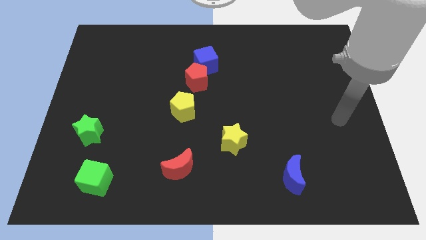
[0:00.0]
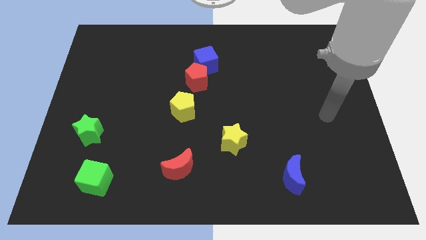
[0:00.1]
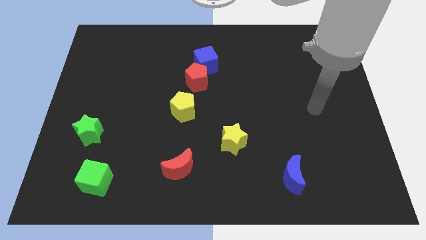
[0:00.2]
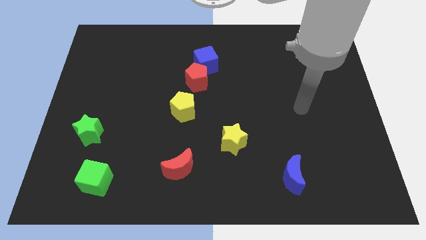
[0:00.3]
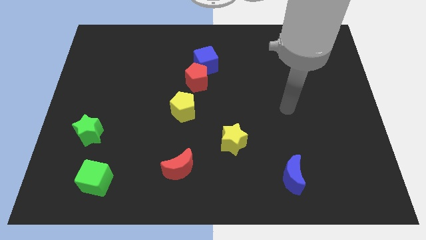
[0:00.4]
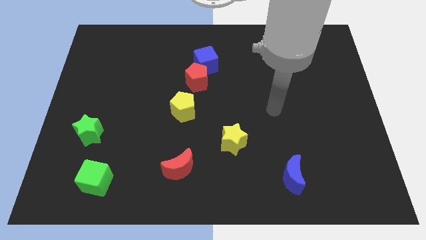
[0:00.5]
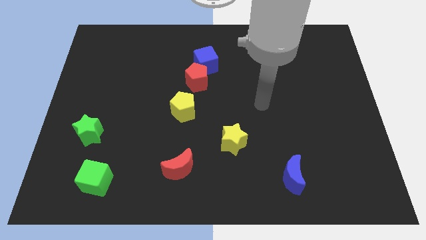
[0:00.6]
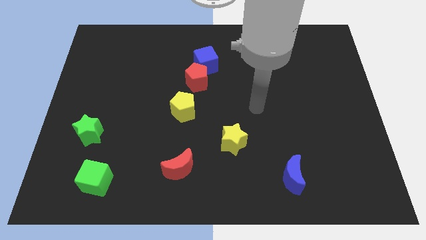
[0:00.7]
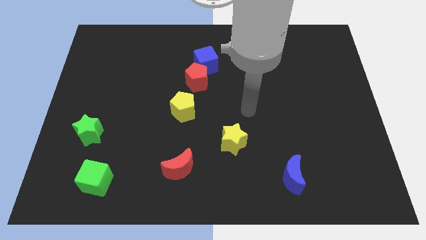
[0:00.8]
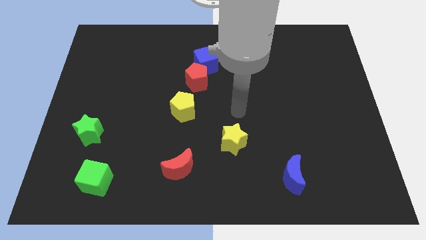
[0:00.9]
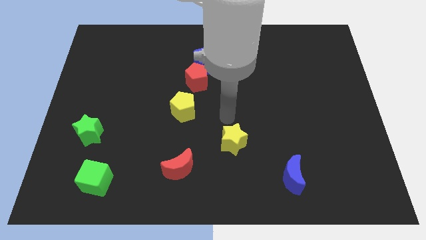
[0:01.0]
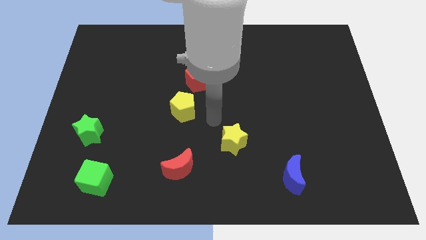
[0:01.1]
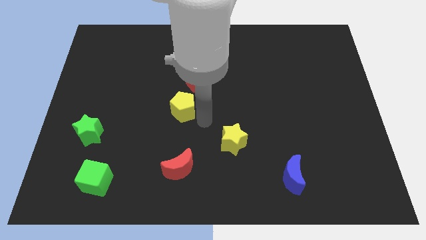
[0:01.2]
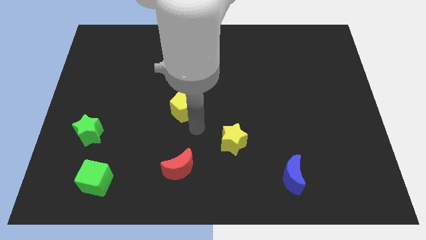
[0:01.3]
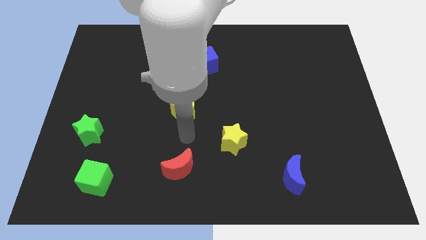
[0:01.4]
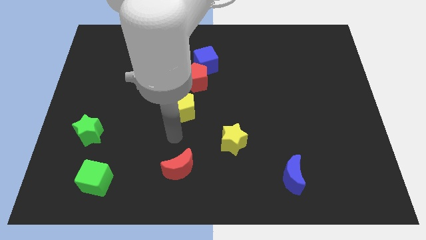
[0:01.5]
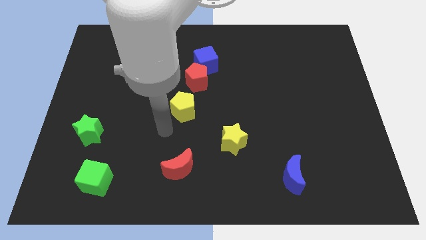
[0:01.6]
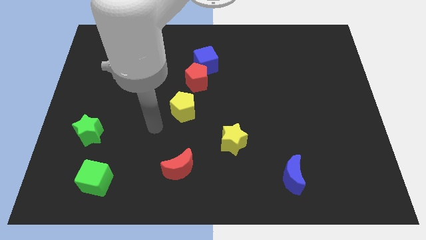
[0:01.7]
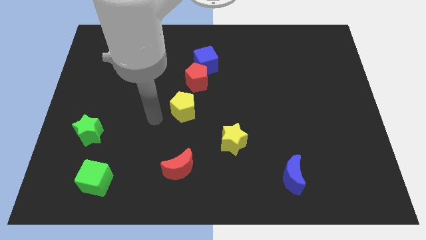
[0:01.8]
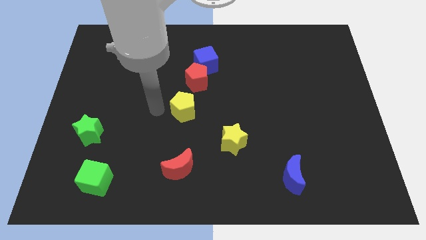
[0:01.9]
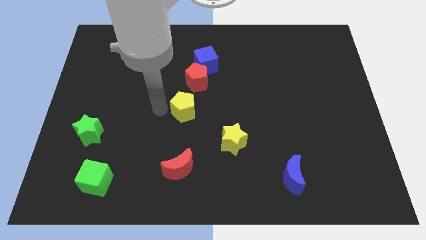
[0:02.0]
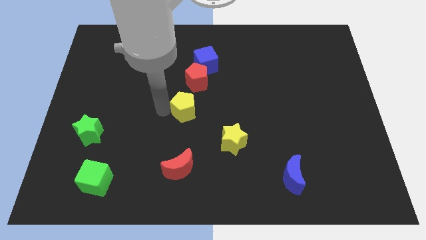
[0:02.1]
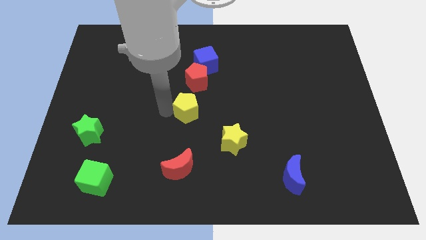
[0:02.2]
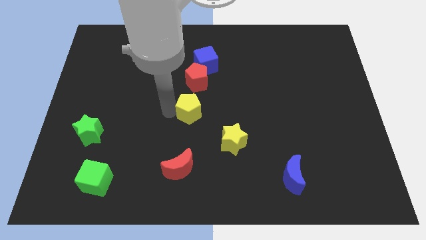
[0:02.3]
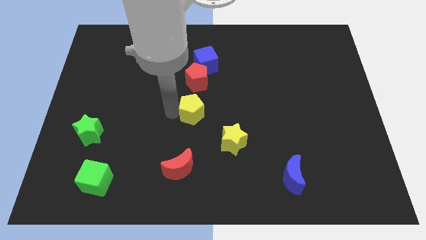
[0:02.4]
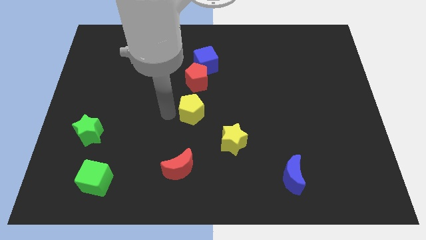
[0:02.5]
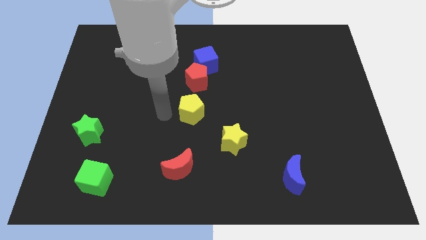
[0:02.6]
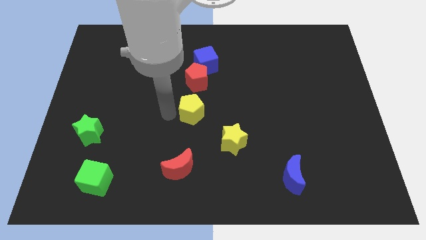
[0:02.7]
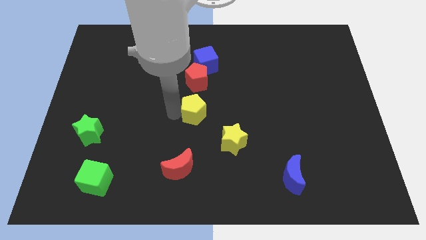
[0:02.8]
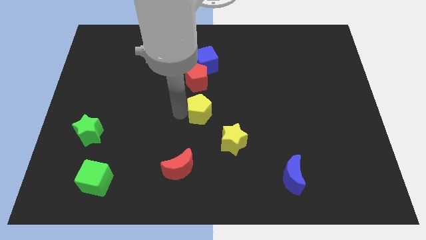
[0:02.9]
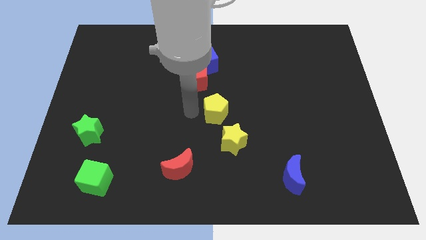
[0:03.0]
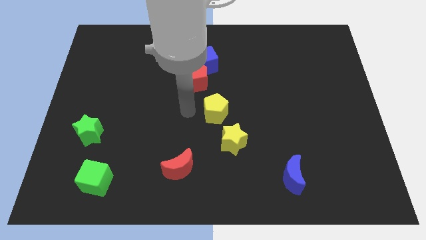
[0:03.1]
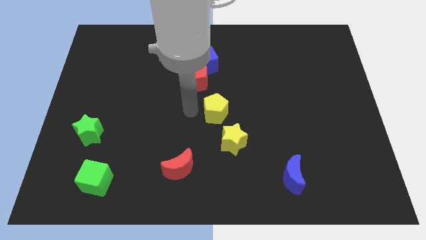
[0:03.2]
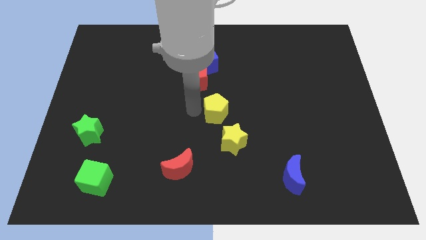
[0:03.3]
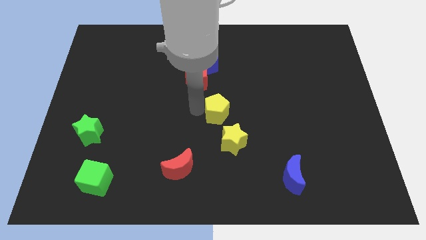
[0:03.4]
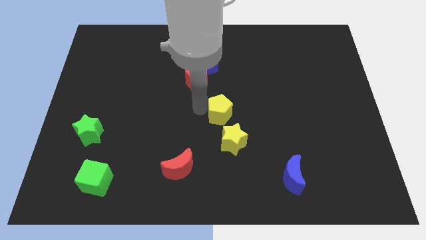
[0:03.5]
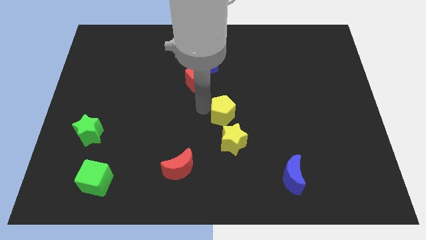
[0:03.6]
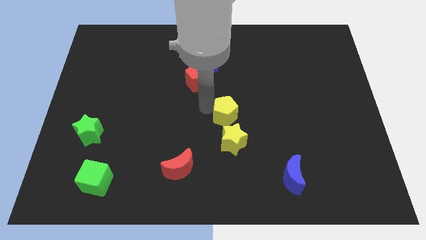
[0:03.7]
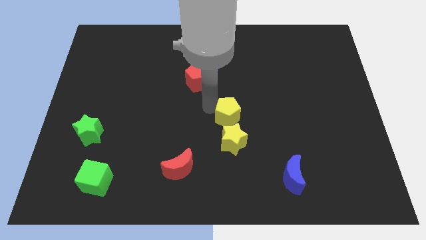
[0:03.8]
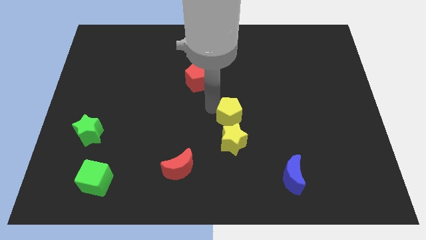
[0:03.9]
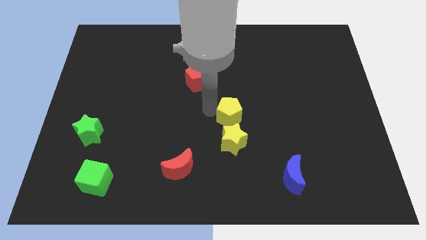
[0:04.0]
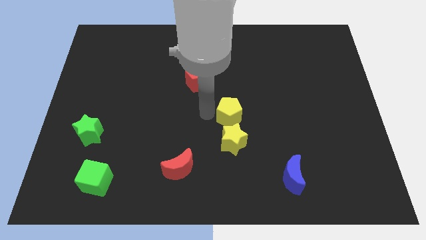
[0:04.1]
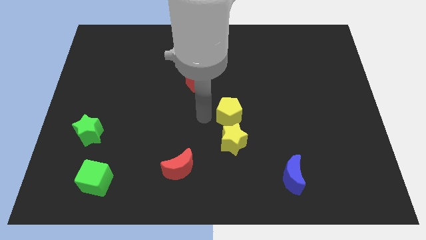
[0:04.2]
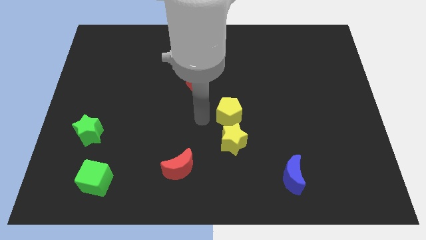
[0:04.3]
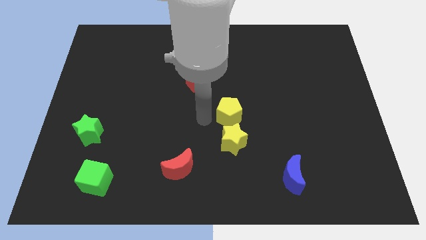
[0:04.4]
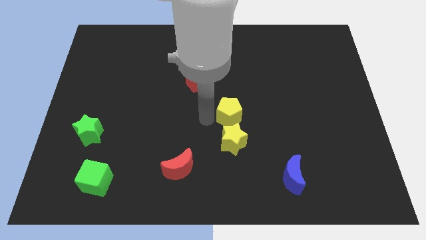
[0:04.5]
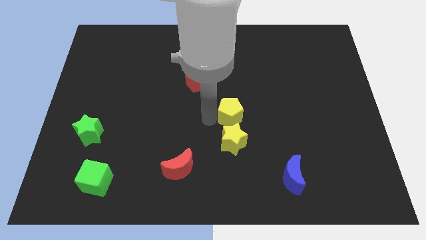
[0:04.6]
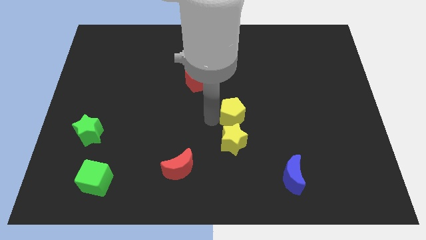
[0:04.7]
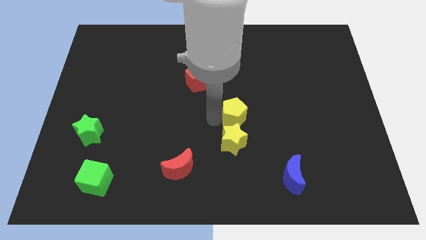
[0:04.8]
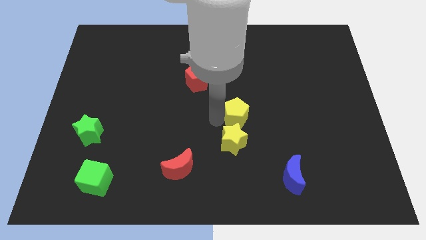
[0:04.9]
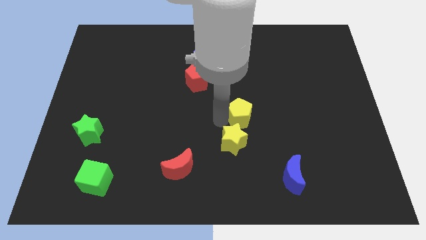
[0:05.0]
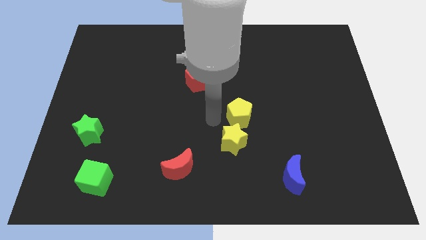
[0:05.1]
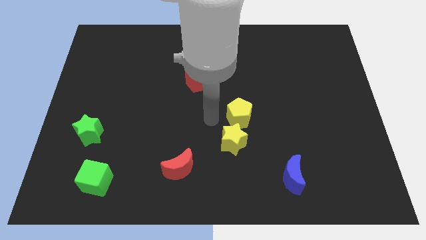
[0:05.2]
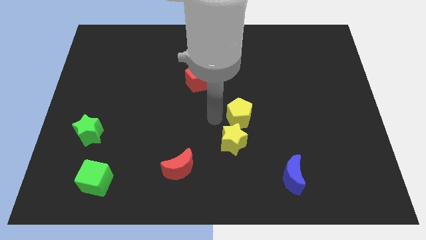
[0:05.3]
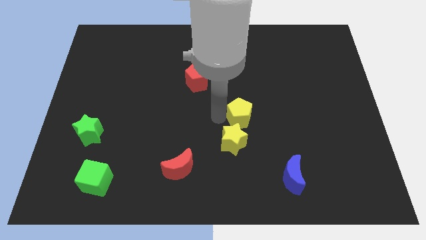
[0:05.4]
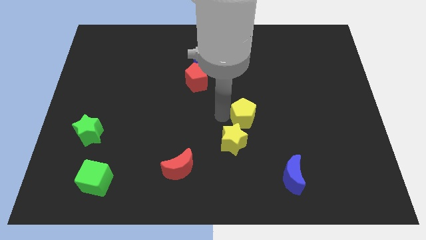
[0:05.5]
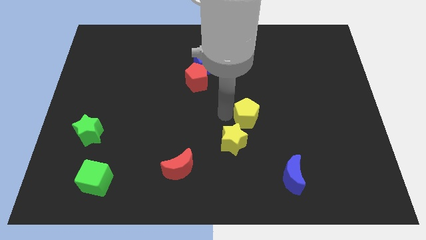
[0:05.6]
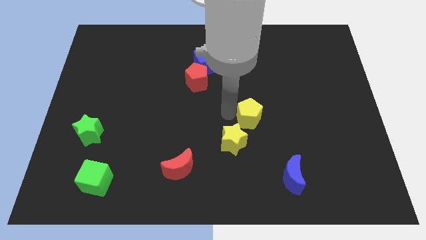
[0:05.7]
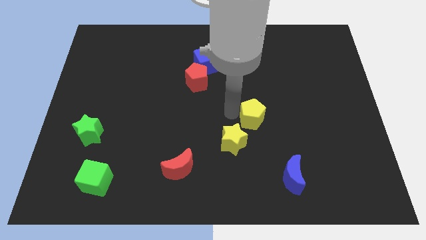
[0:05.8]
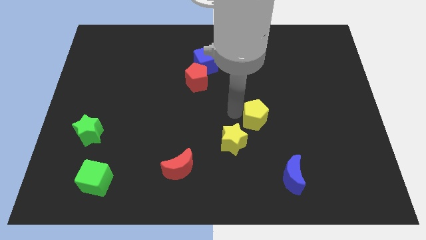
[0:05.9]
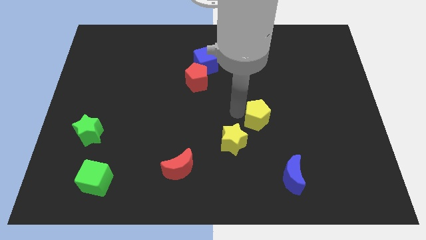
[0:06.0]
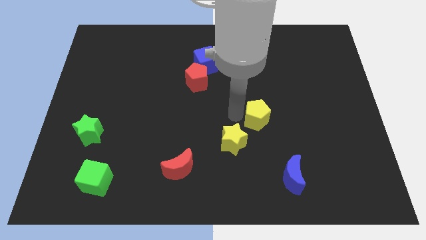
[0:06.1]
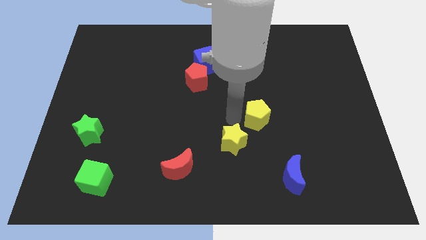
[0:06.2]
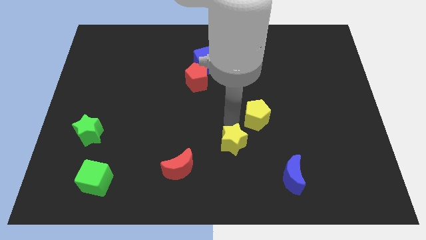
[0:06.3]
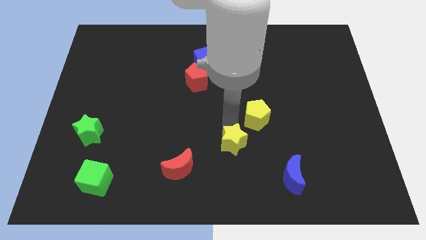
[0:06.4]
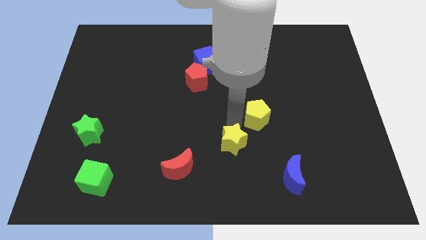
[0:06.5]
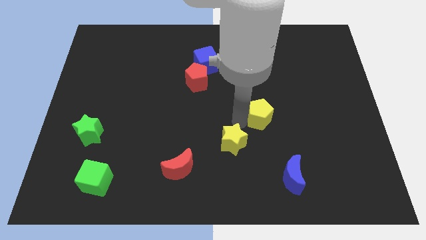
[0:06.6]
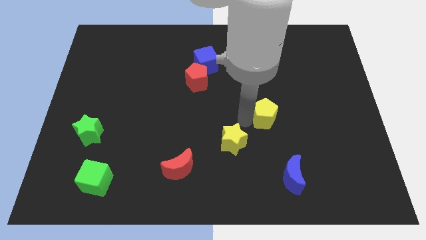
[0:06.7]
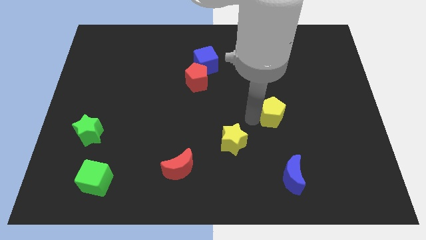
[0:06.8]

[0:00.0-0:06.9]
move the yellow pentagon right

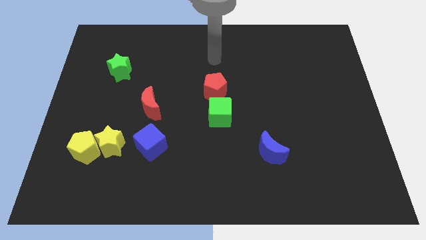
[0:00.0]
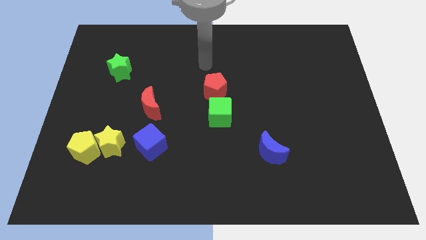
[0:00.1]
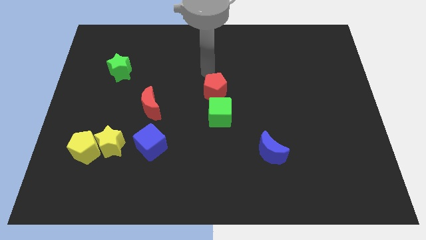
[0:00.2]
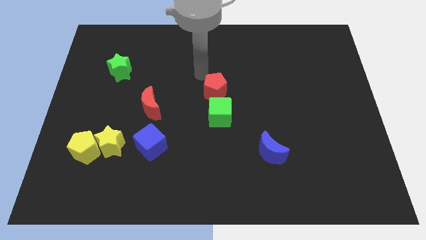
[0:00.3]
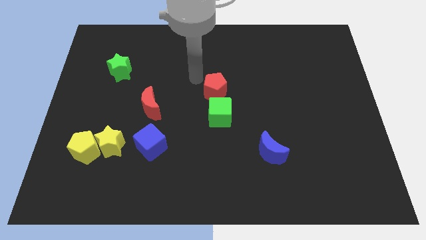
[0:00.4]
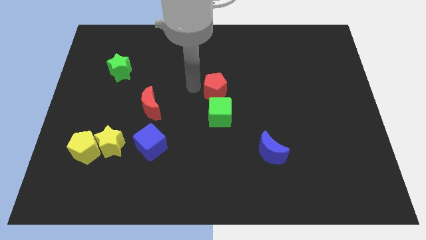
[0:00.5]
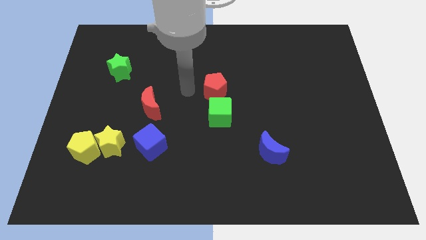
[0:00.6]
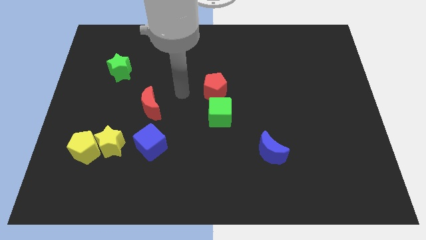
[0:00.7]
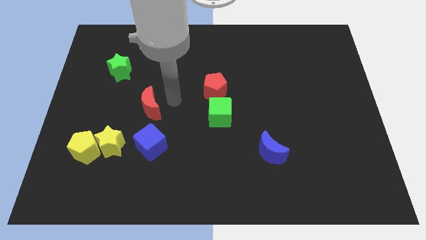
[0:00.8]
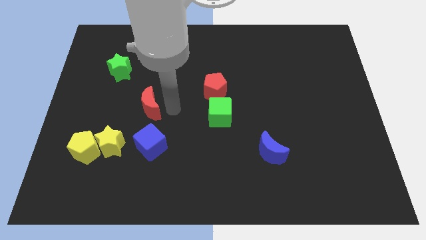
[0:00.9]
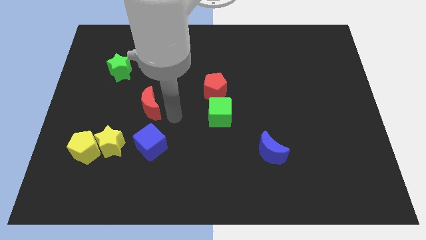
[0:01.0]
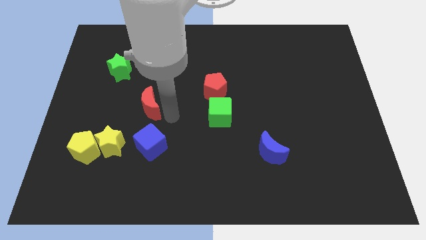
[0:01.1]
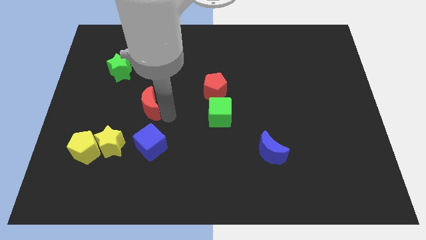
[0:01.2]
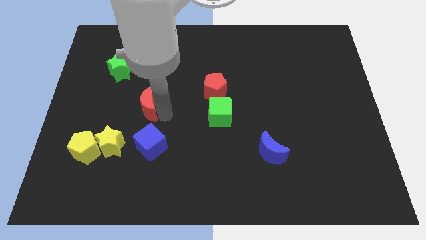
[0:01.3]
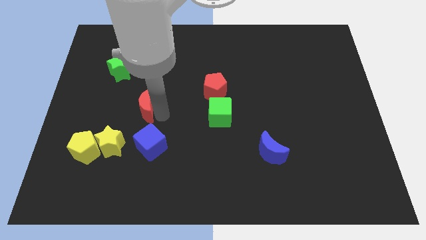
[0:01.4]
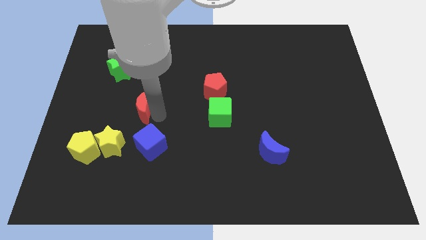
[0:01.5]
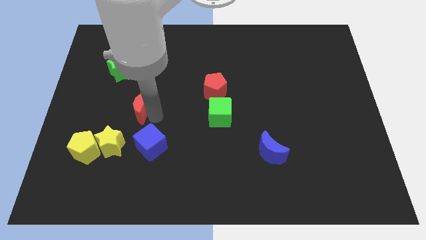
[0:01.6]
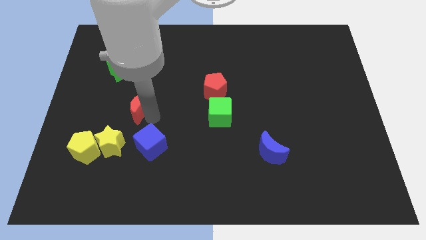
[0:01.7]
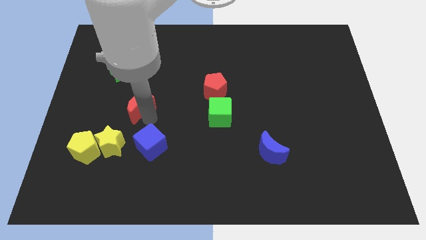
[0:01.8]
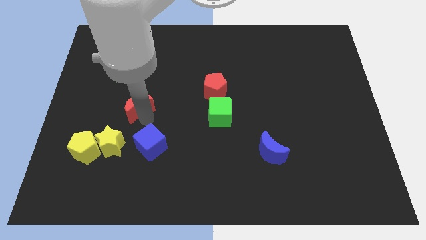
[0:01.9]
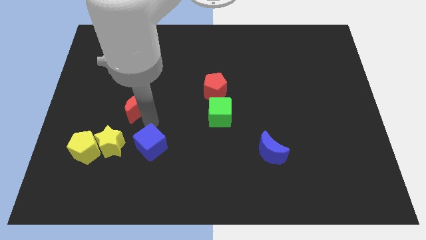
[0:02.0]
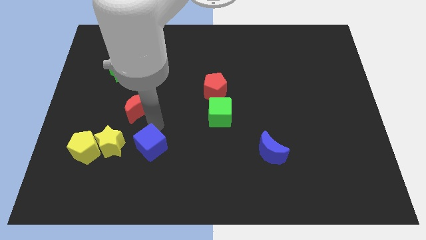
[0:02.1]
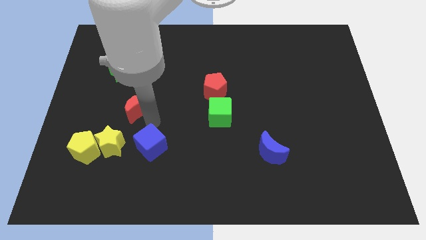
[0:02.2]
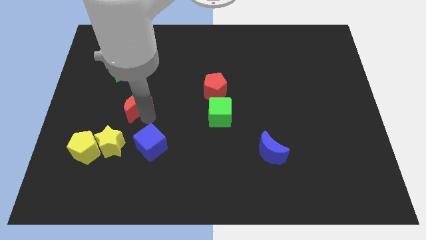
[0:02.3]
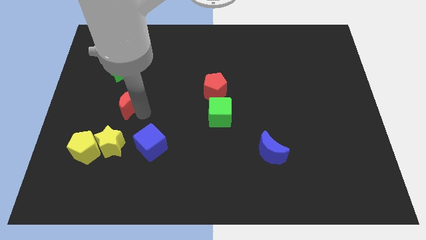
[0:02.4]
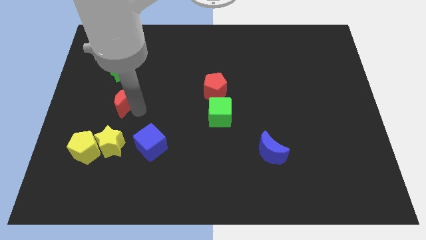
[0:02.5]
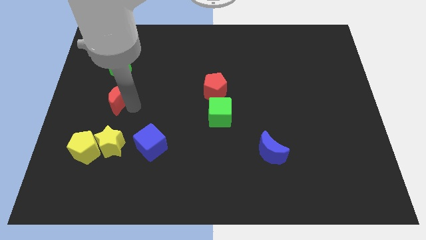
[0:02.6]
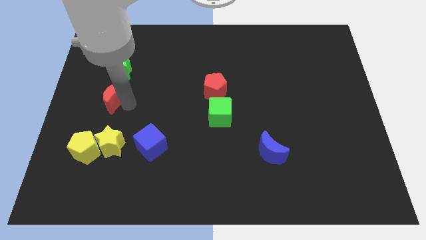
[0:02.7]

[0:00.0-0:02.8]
slightly slide the red moon upwards and left diagonally
